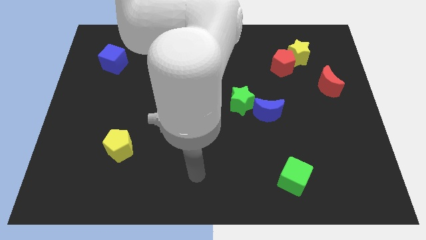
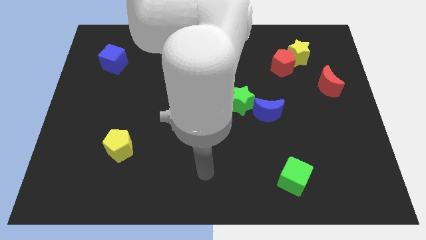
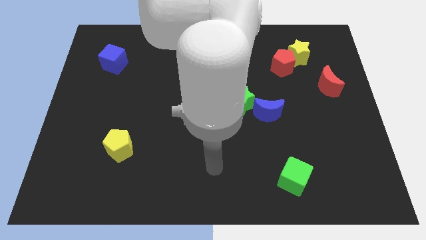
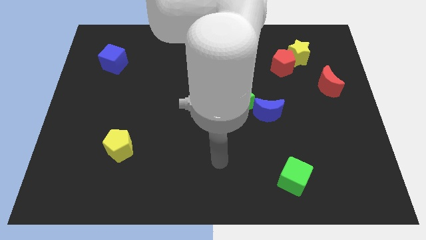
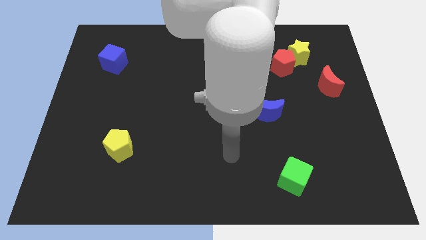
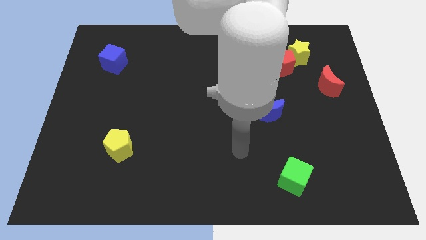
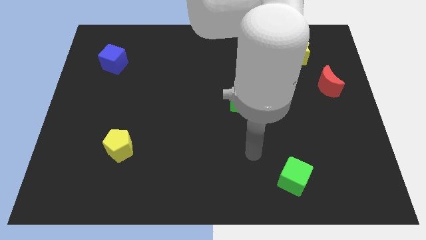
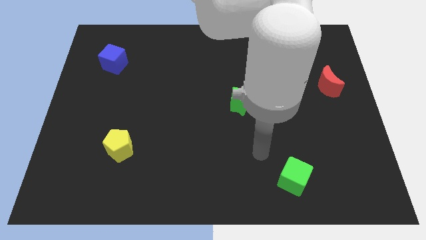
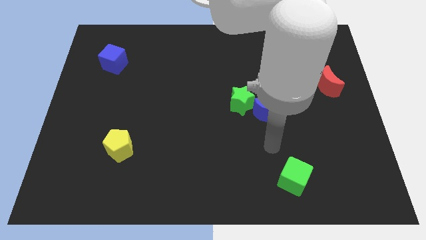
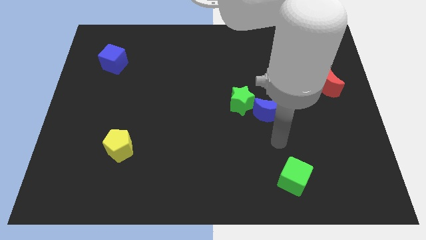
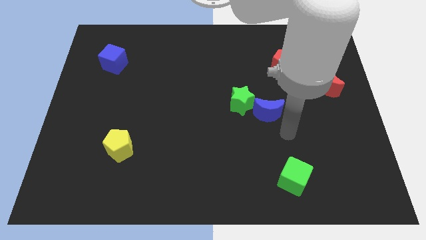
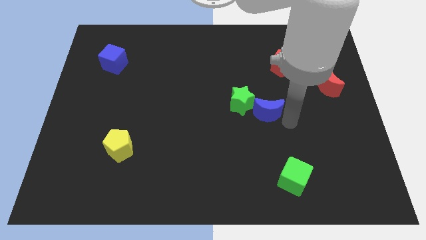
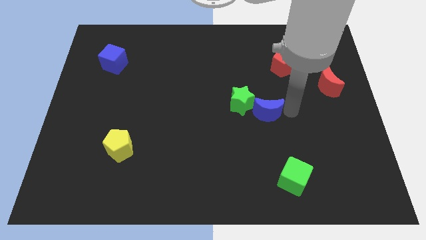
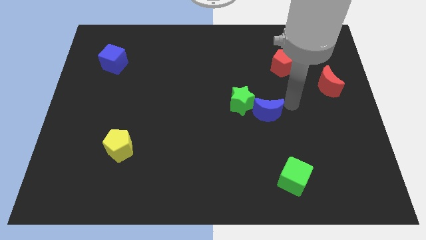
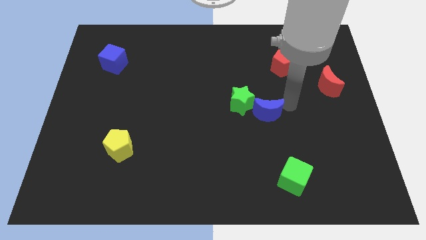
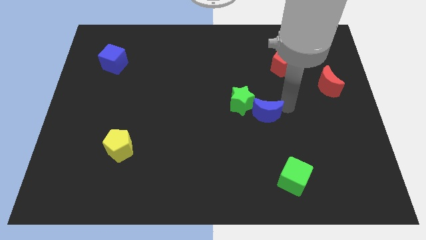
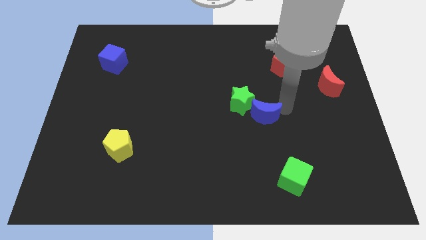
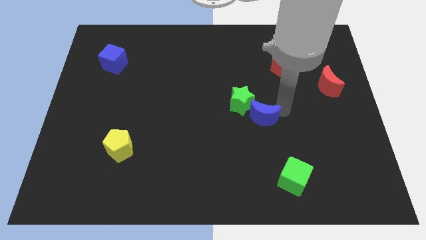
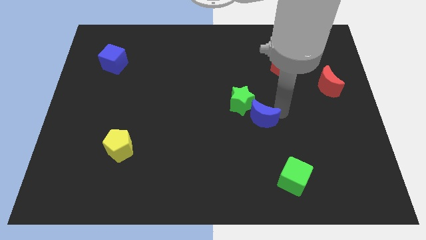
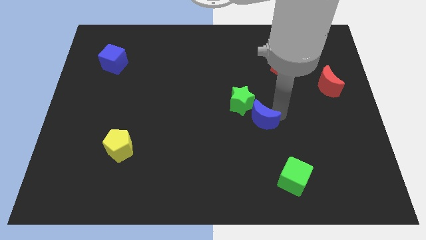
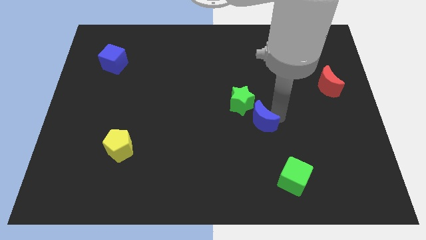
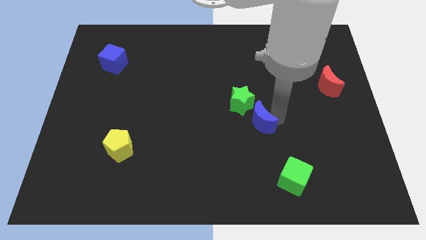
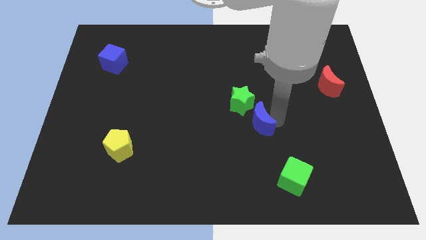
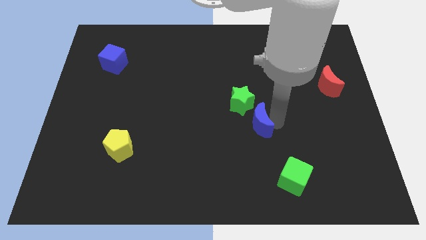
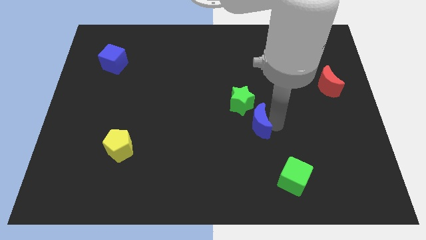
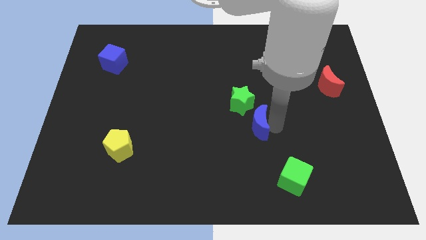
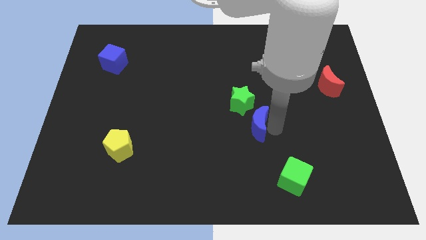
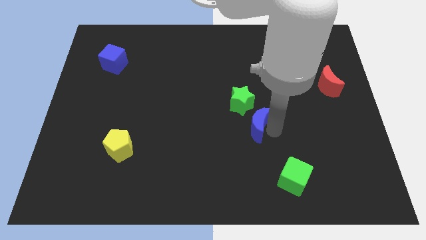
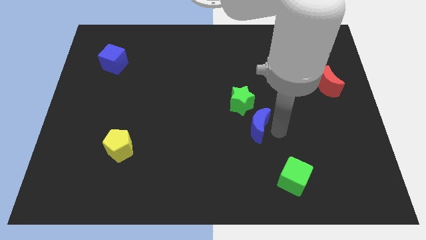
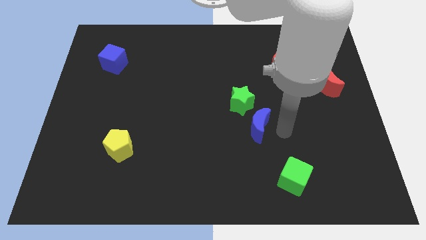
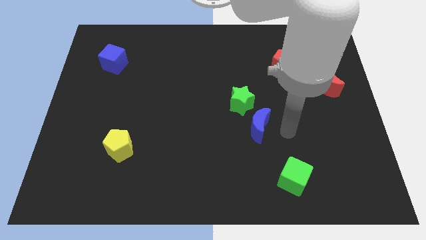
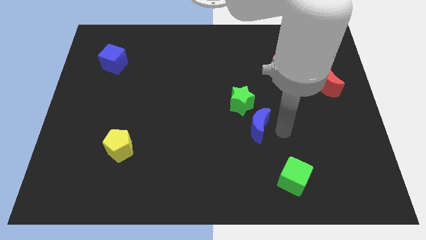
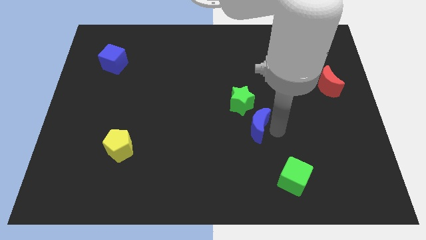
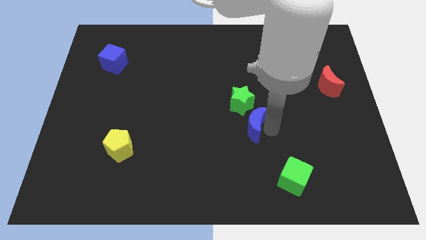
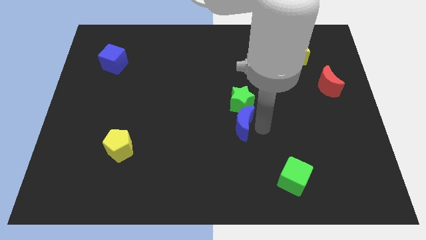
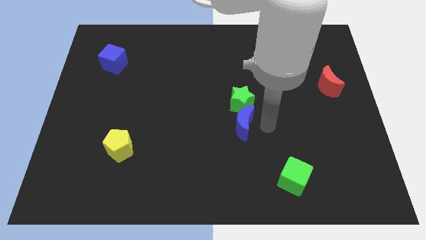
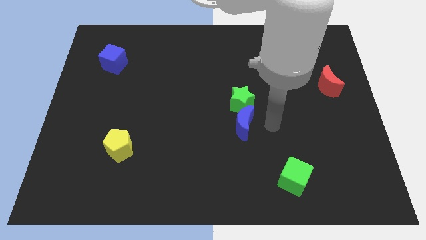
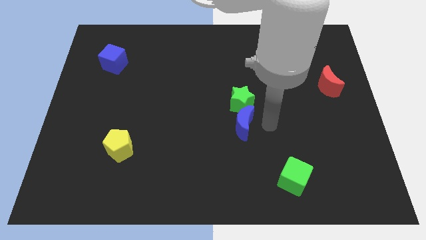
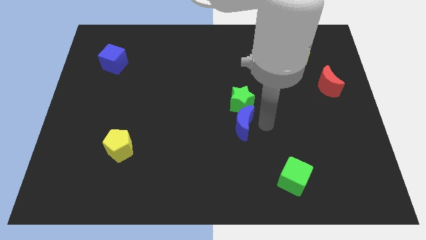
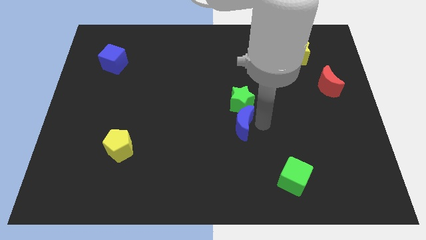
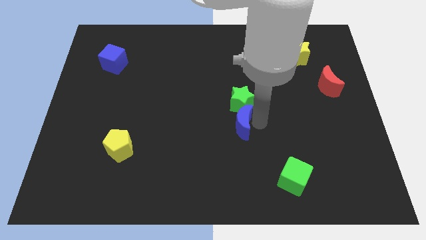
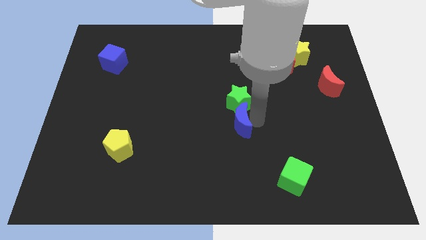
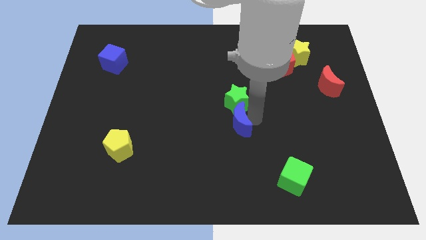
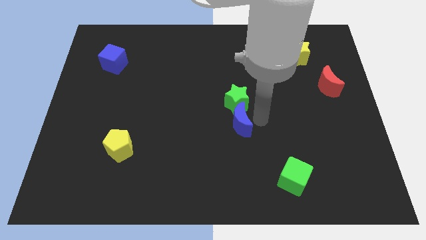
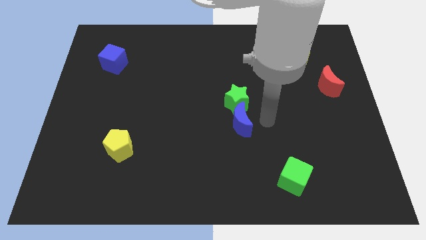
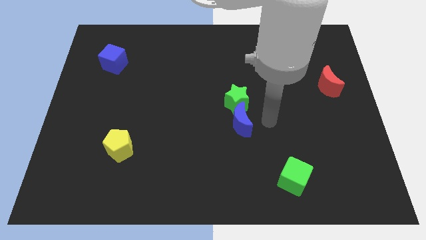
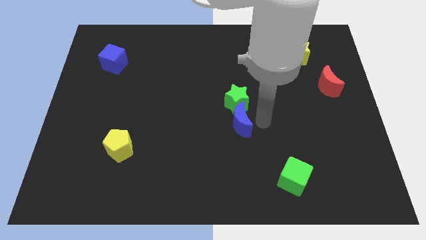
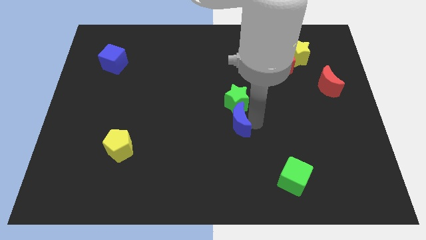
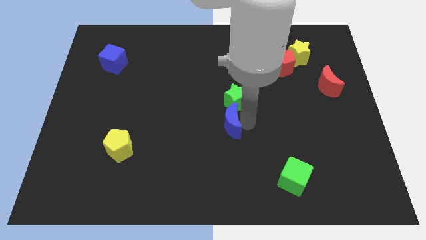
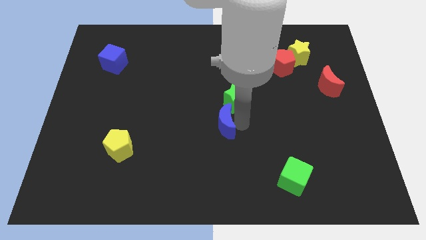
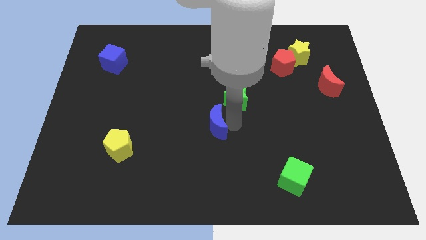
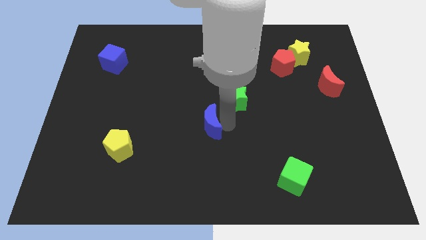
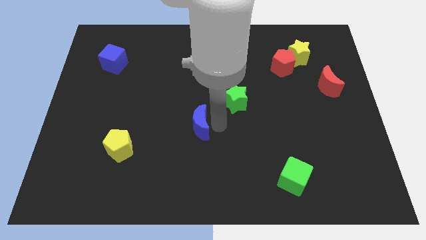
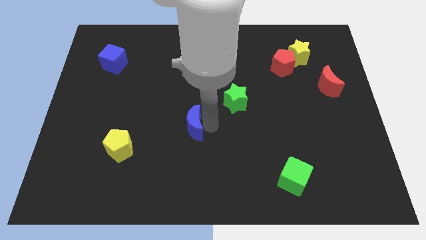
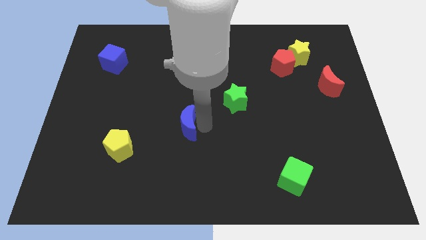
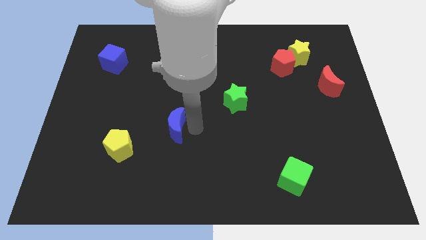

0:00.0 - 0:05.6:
slide the blue moon left

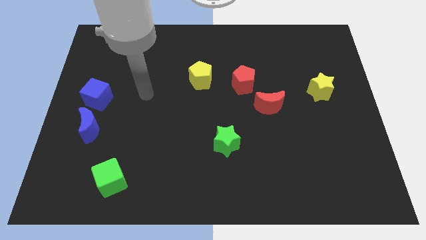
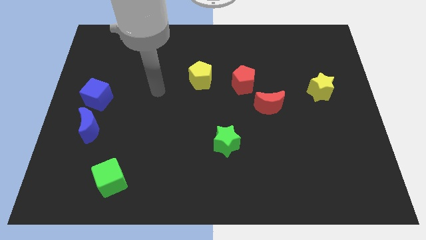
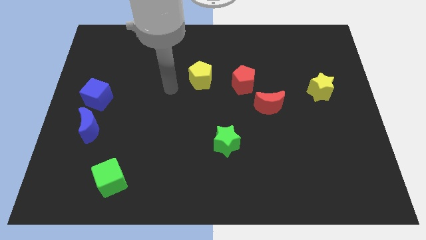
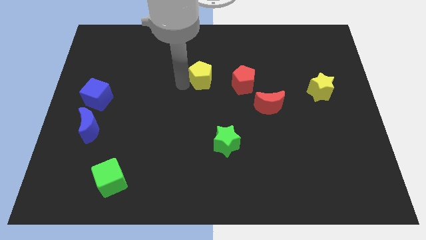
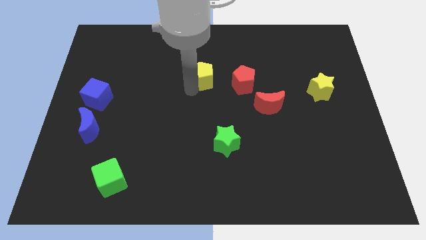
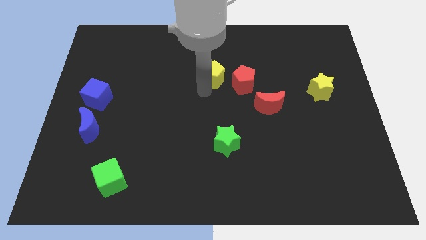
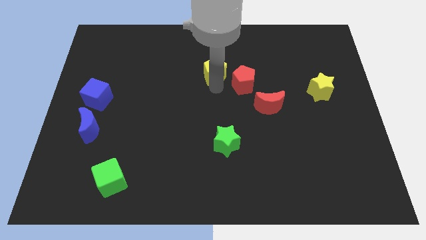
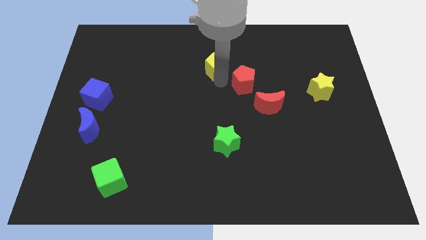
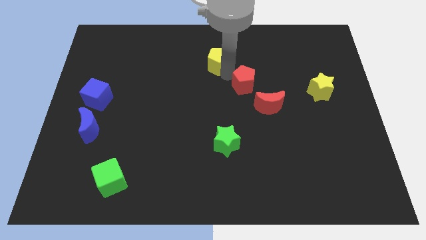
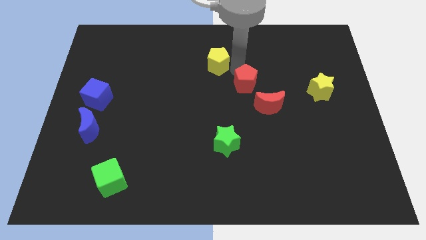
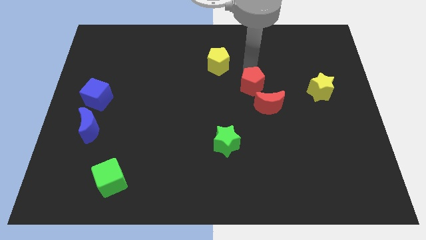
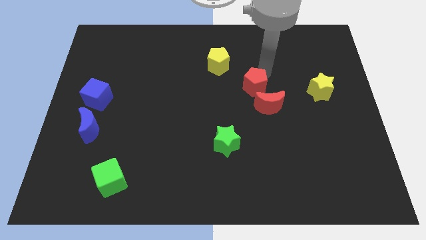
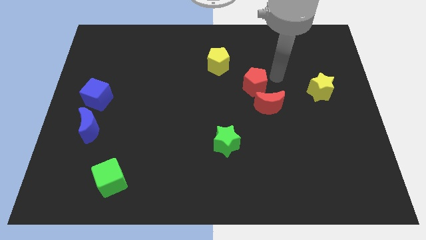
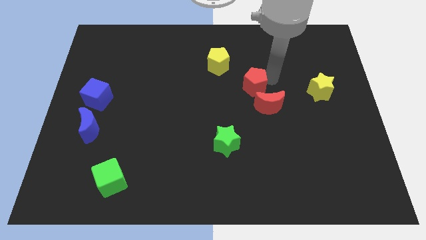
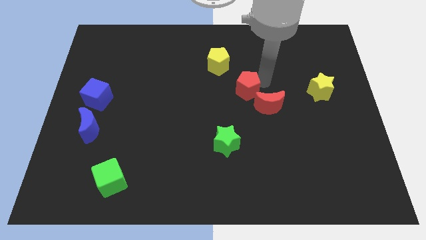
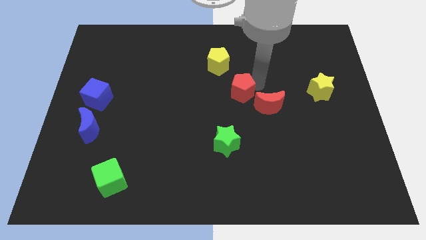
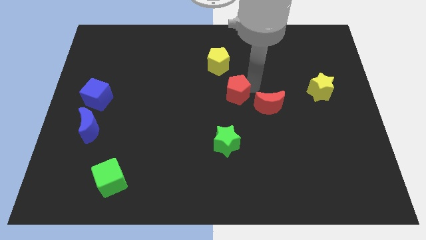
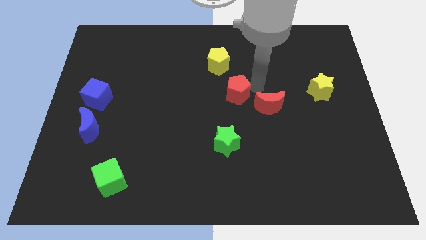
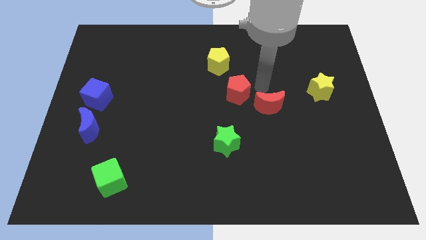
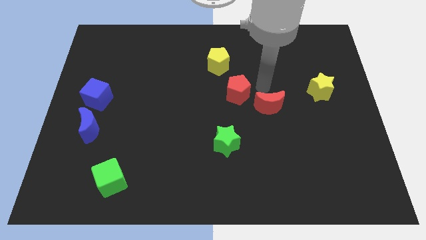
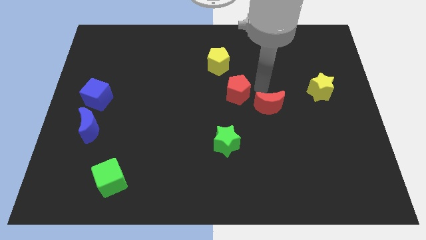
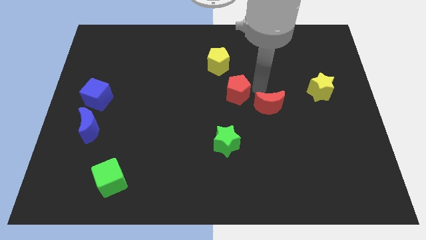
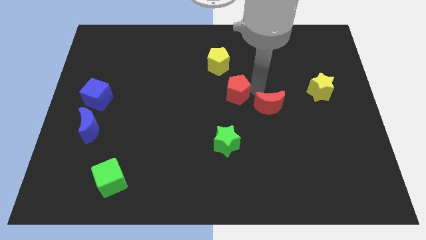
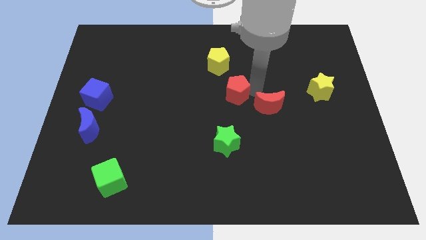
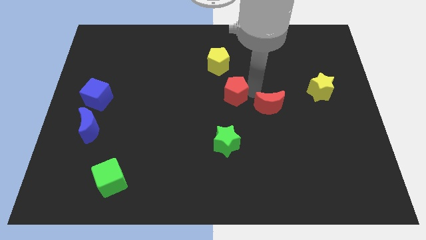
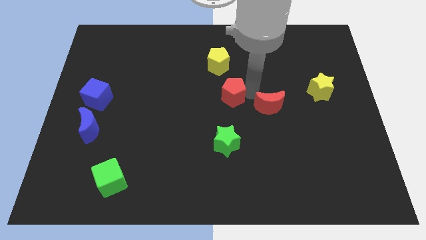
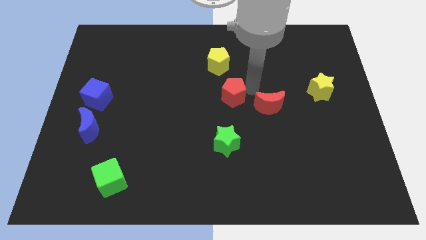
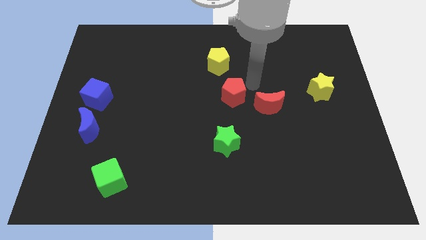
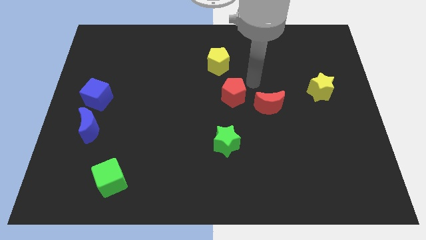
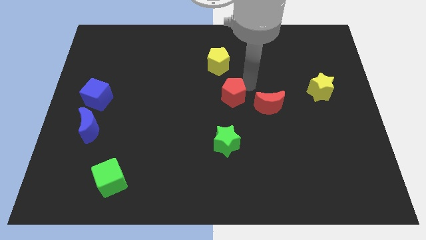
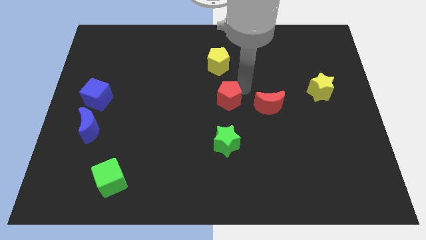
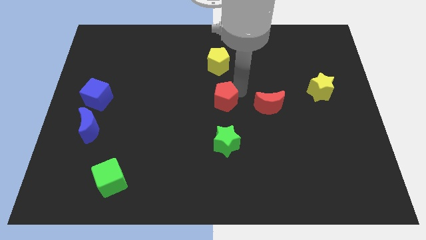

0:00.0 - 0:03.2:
push the red pentagon slightly downwards and to the left diagonally
